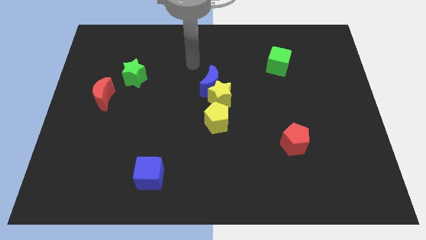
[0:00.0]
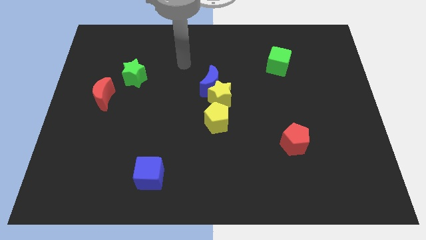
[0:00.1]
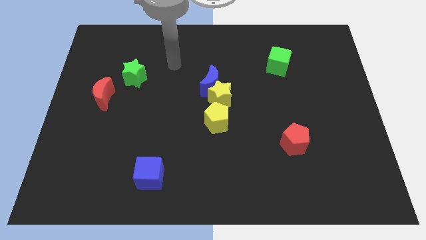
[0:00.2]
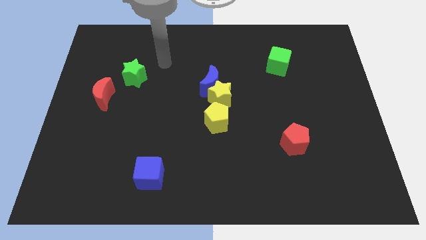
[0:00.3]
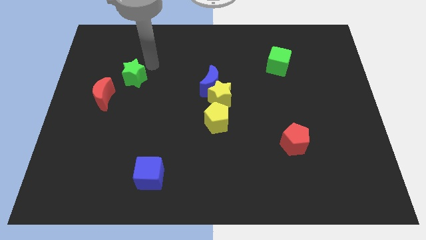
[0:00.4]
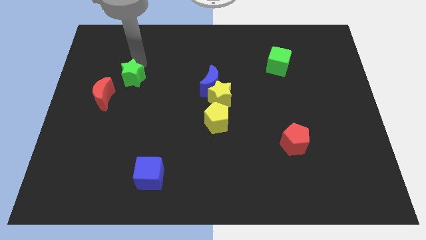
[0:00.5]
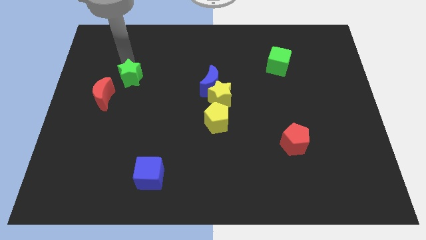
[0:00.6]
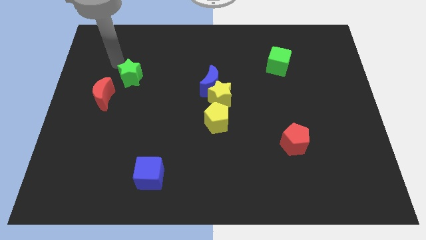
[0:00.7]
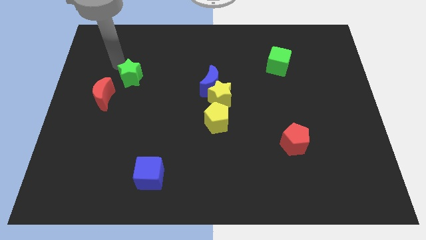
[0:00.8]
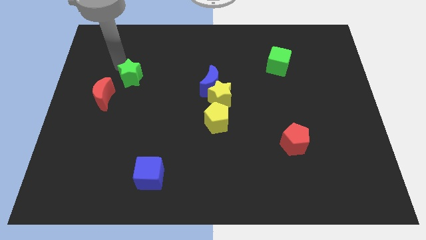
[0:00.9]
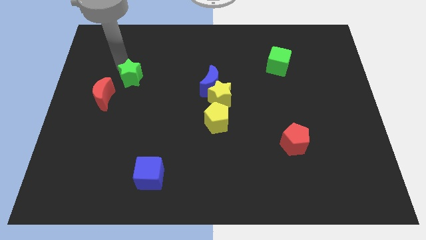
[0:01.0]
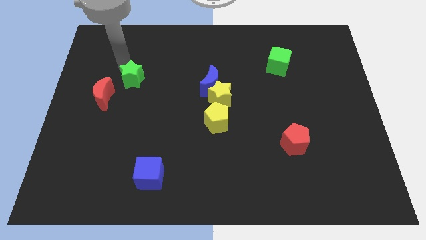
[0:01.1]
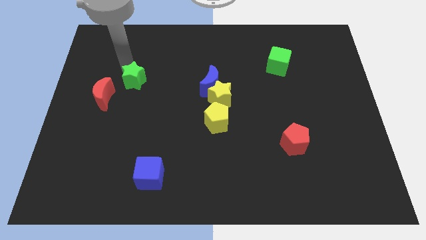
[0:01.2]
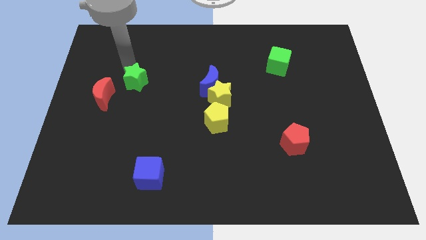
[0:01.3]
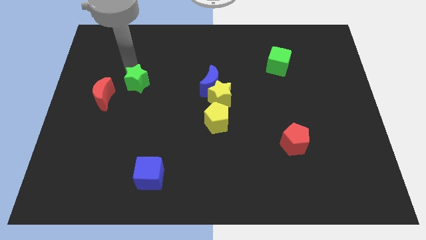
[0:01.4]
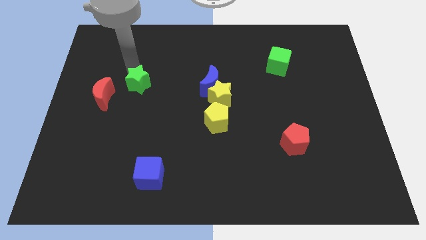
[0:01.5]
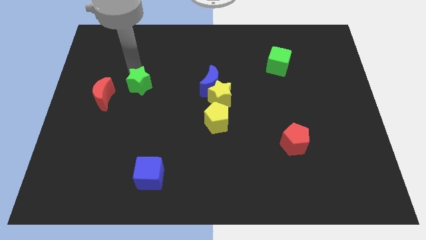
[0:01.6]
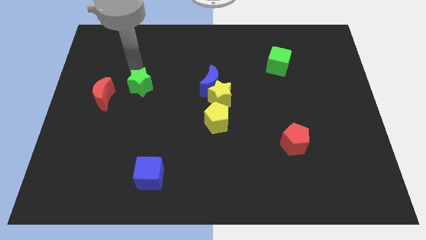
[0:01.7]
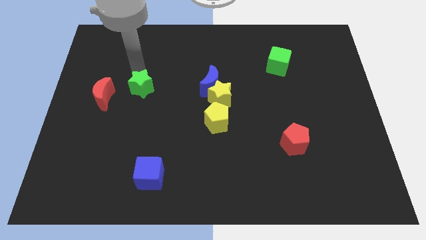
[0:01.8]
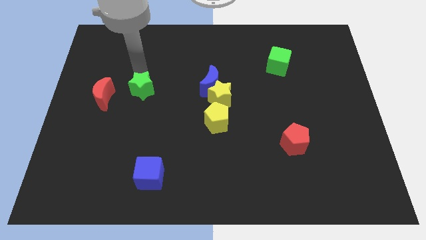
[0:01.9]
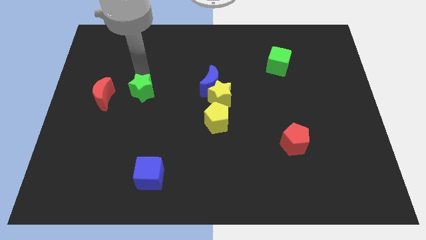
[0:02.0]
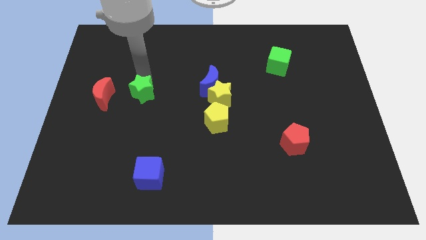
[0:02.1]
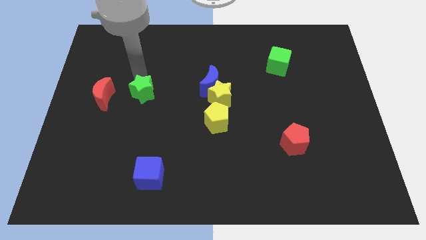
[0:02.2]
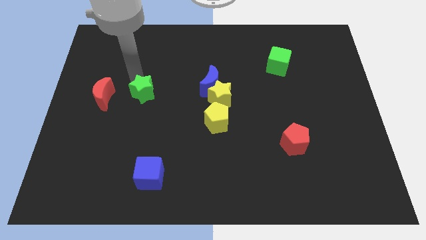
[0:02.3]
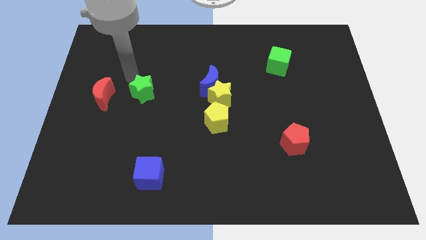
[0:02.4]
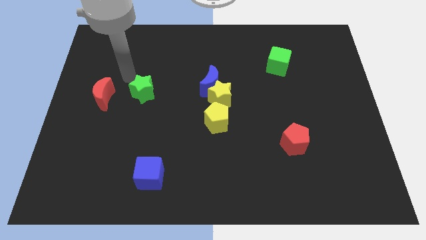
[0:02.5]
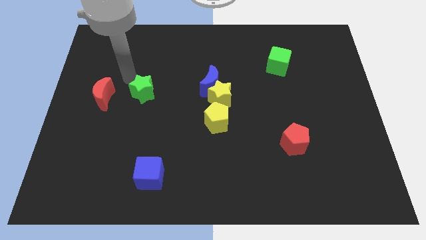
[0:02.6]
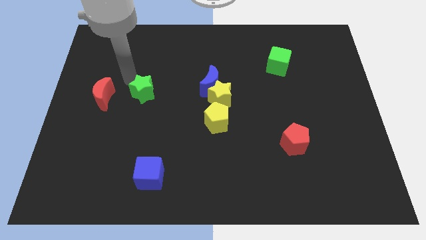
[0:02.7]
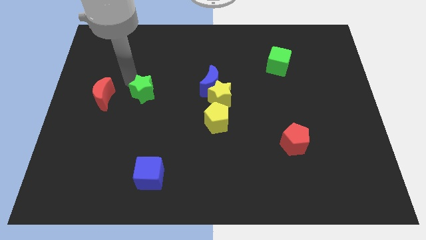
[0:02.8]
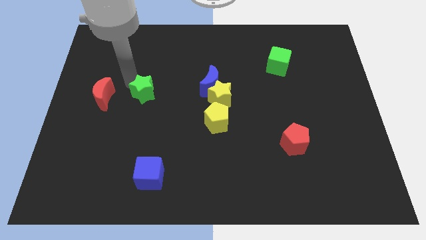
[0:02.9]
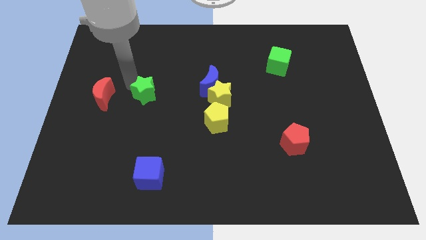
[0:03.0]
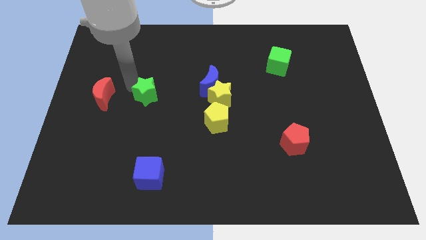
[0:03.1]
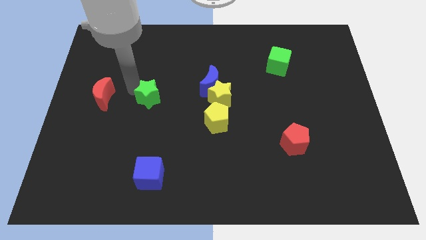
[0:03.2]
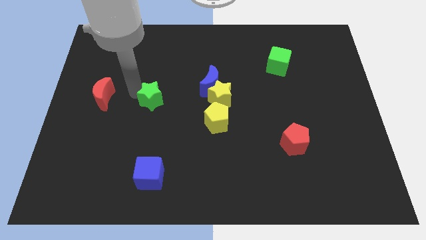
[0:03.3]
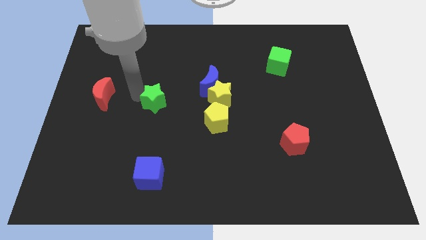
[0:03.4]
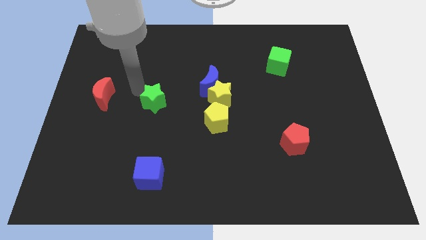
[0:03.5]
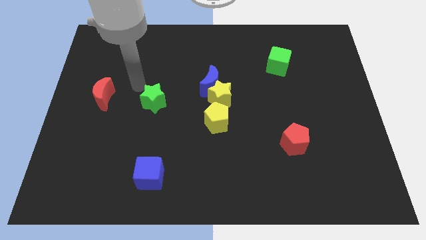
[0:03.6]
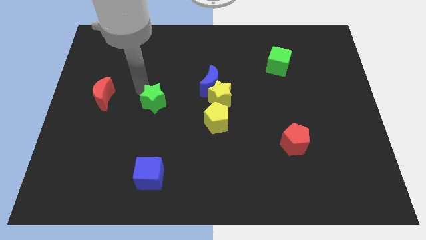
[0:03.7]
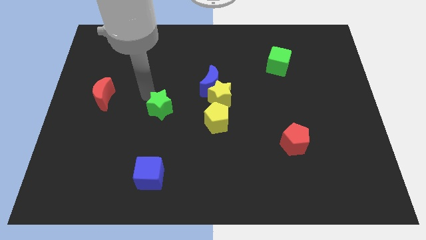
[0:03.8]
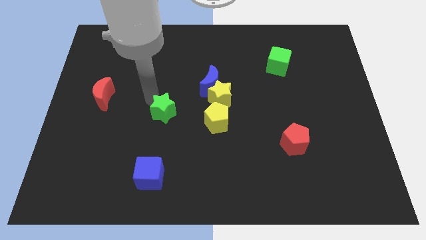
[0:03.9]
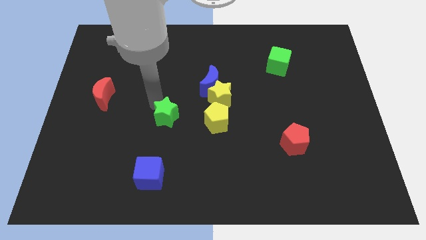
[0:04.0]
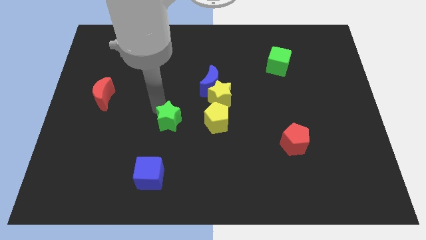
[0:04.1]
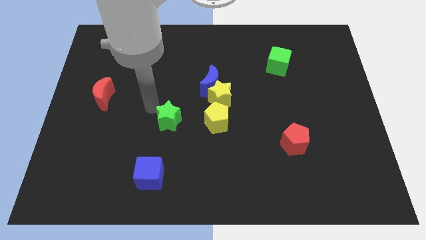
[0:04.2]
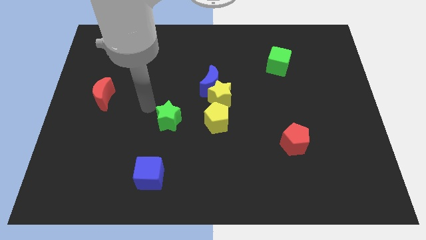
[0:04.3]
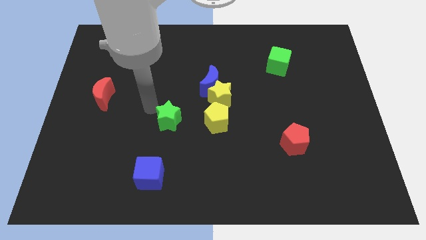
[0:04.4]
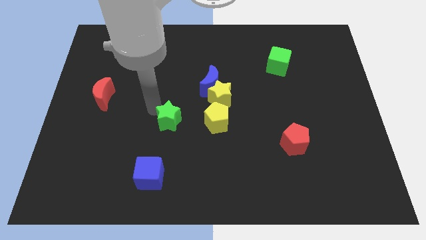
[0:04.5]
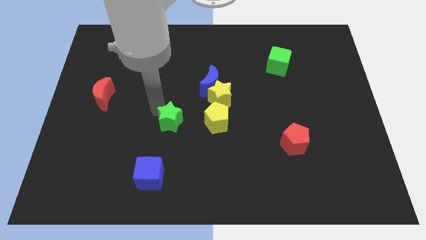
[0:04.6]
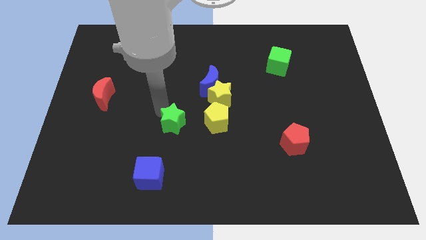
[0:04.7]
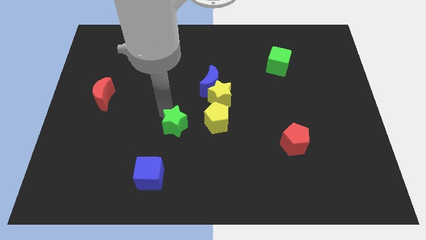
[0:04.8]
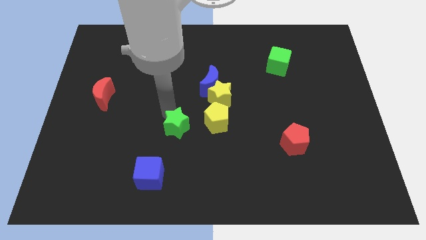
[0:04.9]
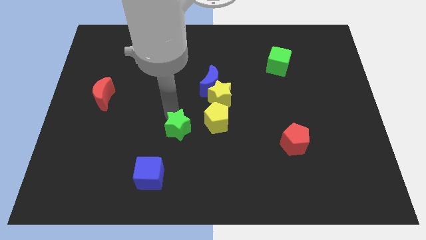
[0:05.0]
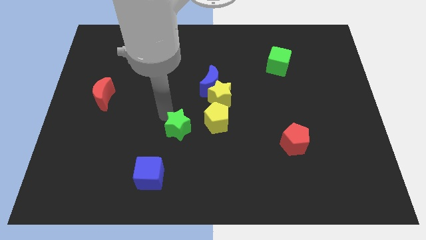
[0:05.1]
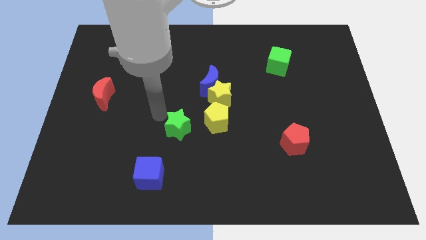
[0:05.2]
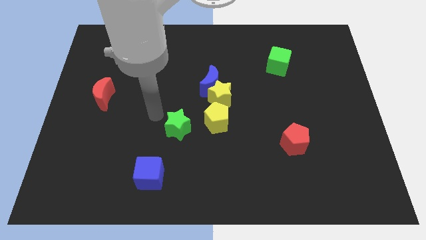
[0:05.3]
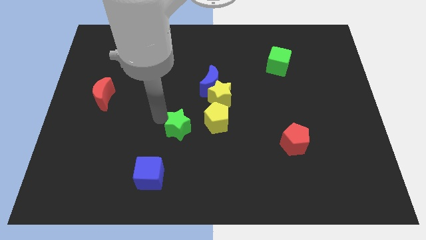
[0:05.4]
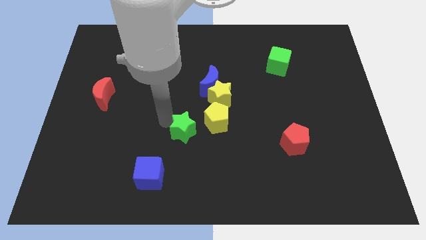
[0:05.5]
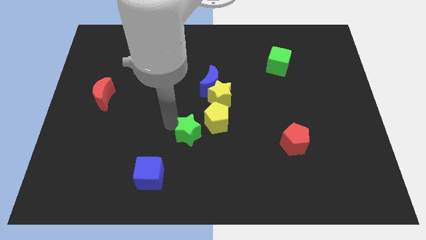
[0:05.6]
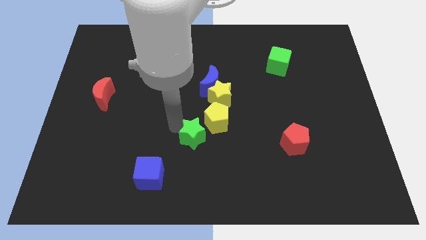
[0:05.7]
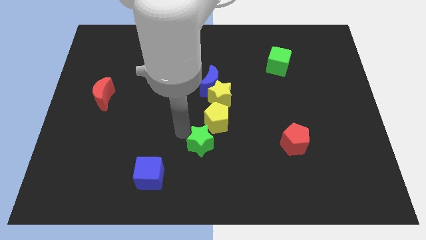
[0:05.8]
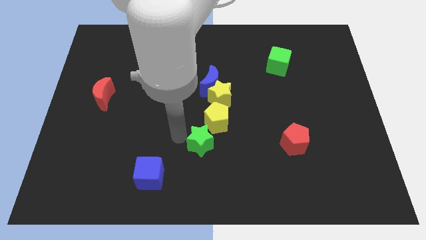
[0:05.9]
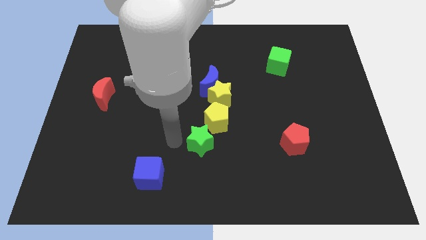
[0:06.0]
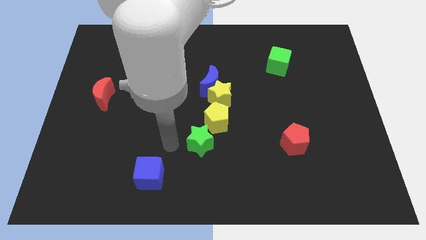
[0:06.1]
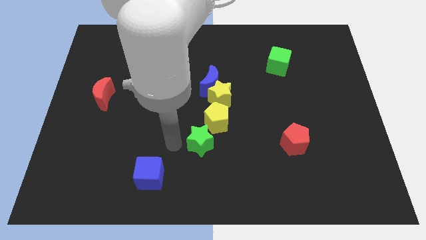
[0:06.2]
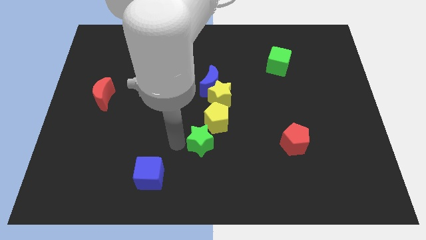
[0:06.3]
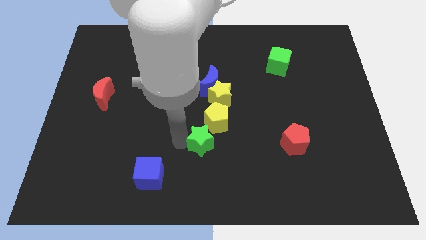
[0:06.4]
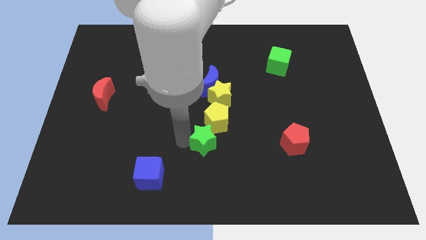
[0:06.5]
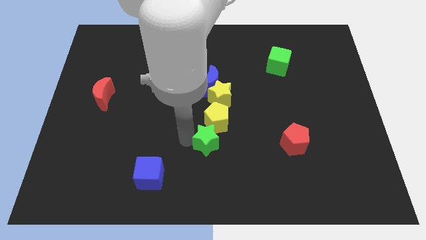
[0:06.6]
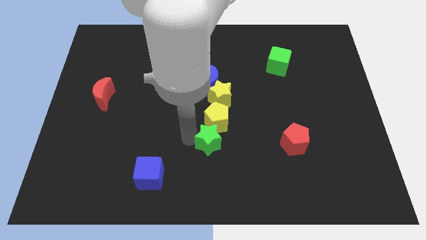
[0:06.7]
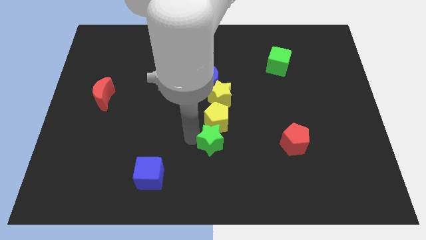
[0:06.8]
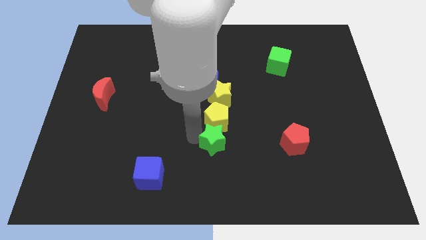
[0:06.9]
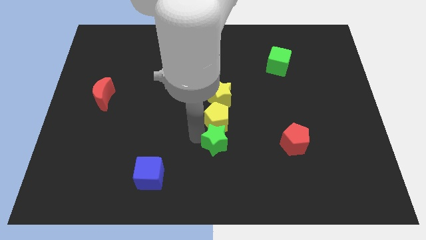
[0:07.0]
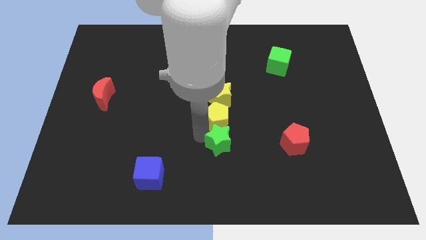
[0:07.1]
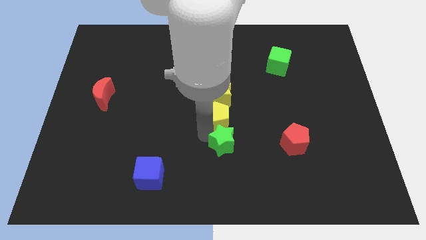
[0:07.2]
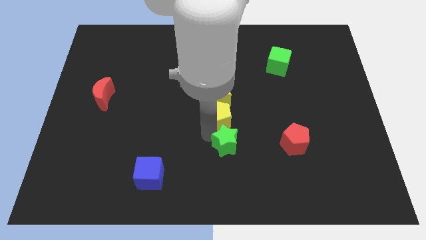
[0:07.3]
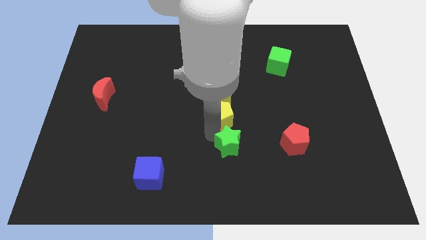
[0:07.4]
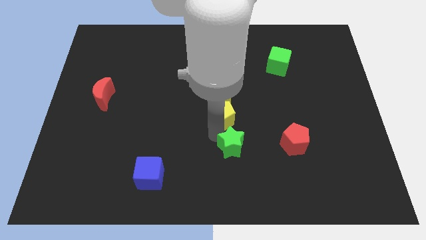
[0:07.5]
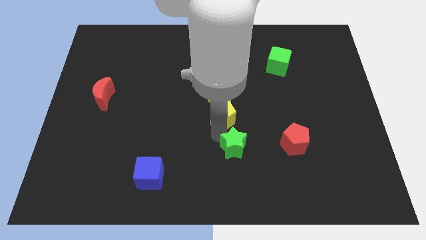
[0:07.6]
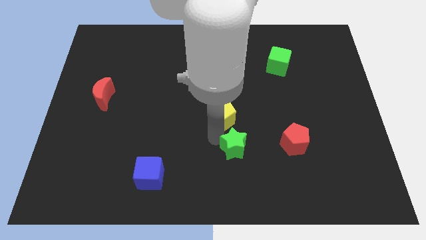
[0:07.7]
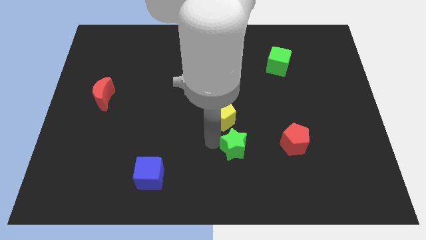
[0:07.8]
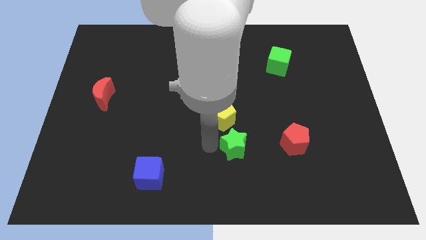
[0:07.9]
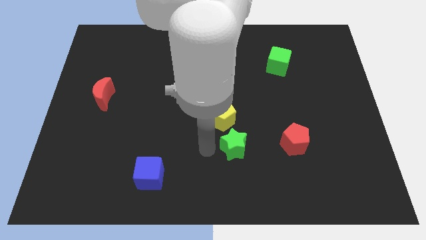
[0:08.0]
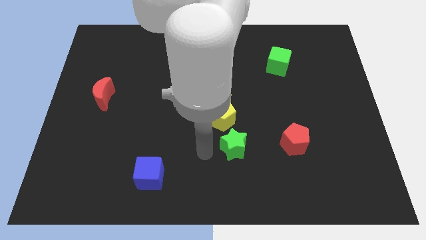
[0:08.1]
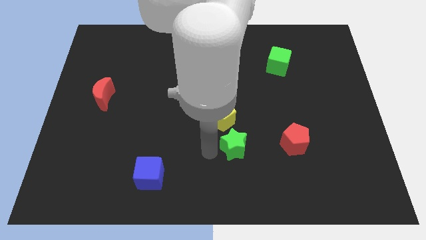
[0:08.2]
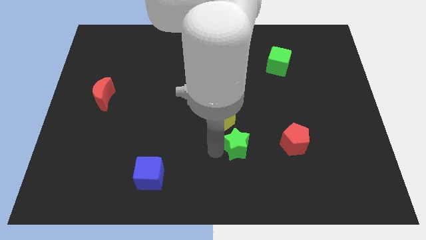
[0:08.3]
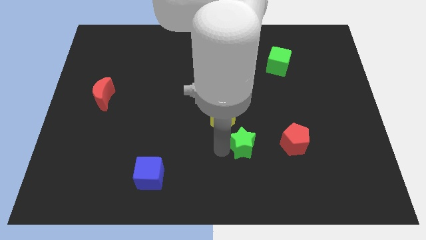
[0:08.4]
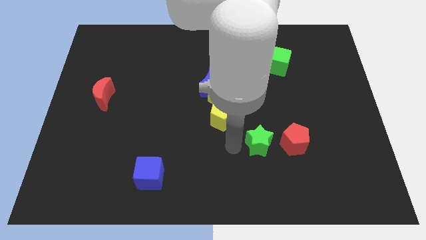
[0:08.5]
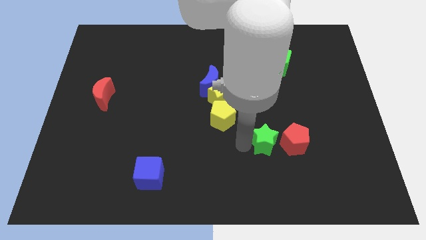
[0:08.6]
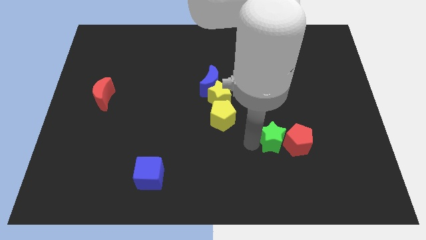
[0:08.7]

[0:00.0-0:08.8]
put the green star towards the red pentagon
